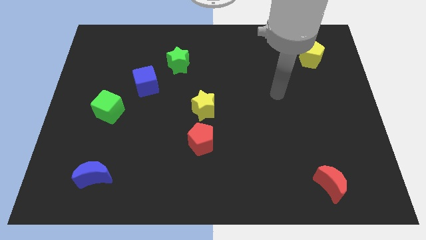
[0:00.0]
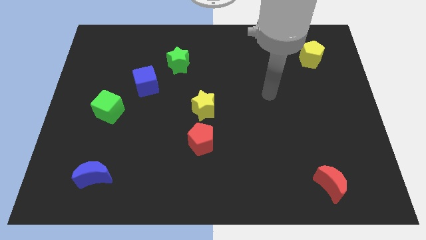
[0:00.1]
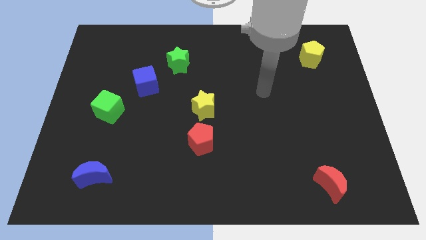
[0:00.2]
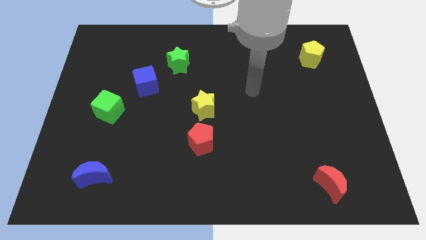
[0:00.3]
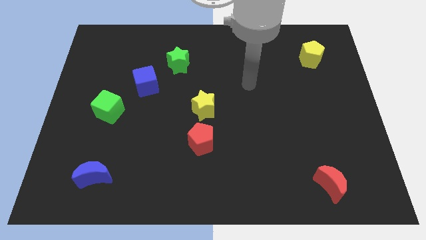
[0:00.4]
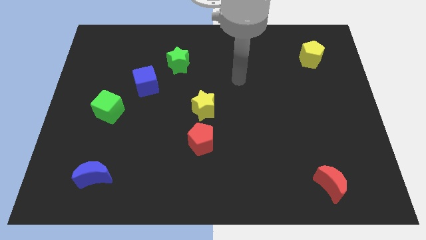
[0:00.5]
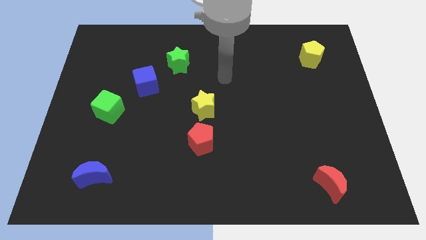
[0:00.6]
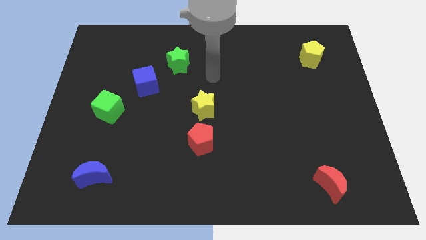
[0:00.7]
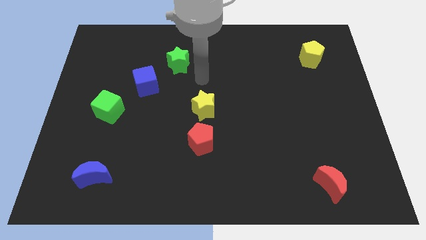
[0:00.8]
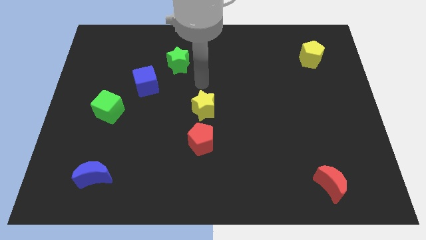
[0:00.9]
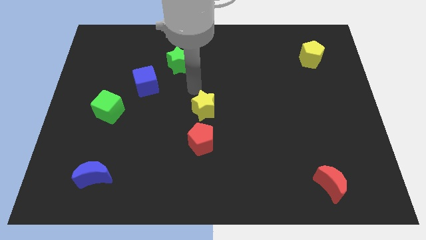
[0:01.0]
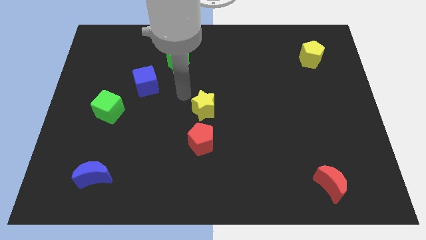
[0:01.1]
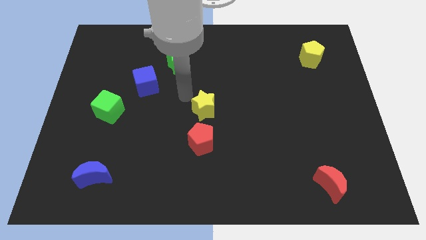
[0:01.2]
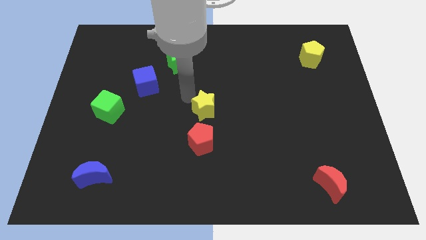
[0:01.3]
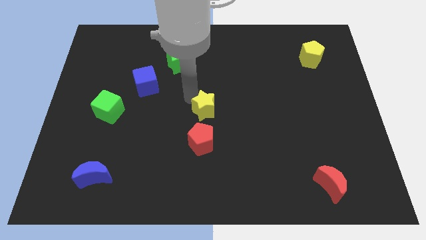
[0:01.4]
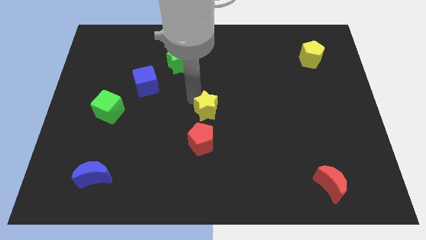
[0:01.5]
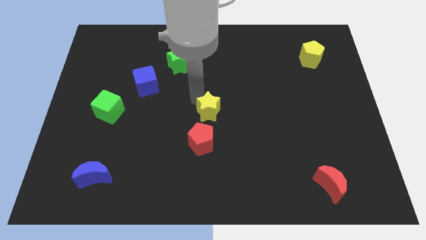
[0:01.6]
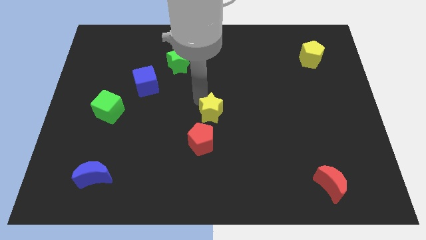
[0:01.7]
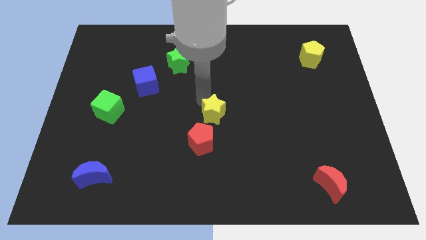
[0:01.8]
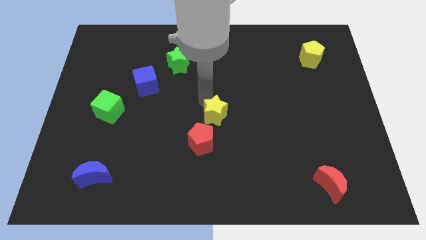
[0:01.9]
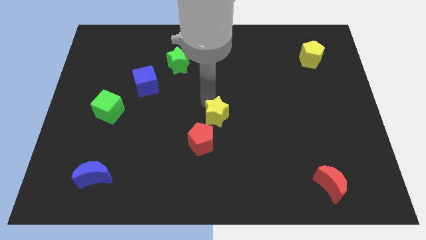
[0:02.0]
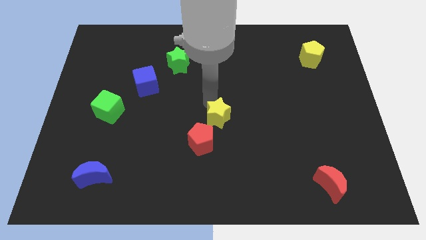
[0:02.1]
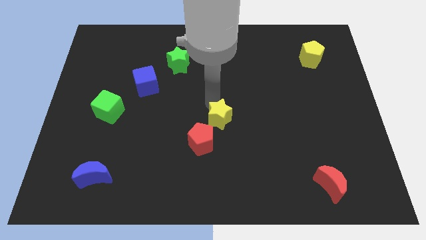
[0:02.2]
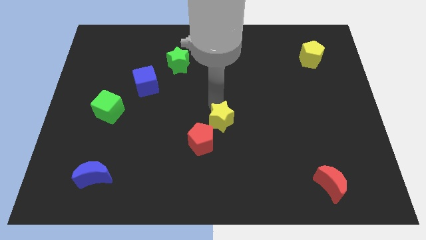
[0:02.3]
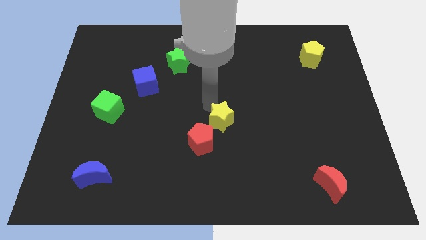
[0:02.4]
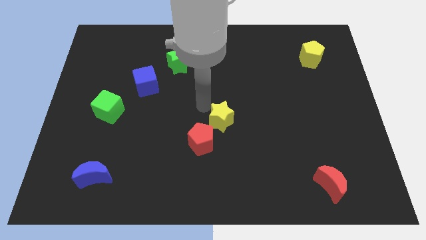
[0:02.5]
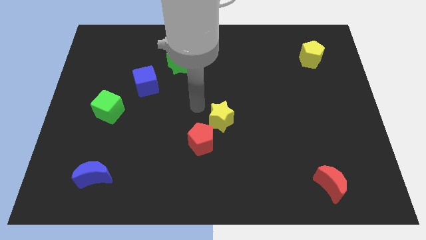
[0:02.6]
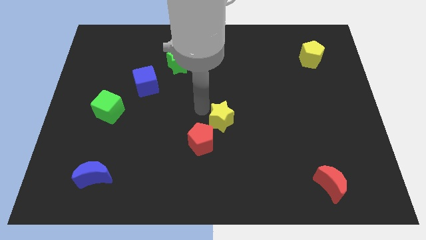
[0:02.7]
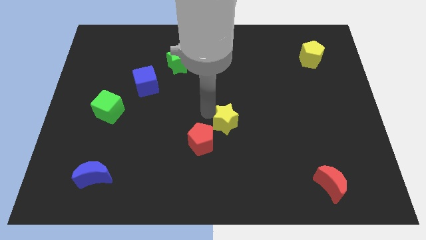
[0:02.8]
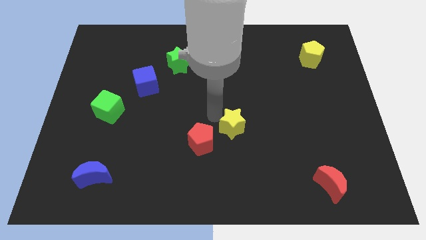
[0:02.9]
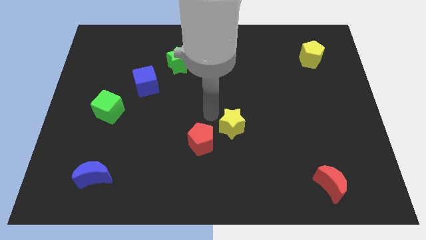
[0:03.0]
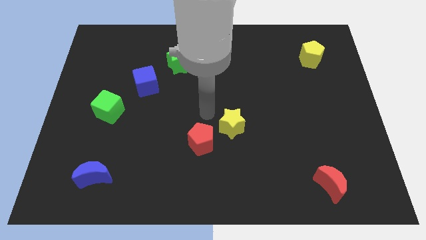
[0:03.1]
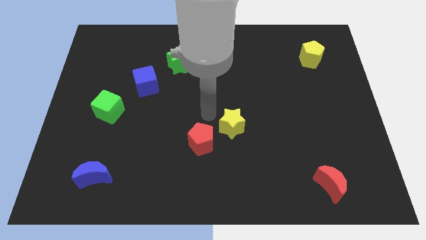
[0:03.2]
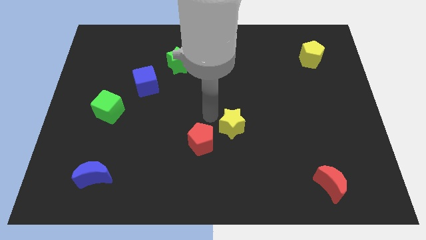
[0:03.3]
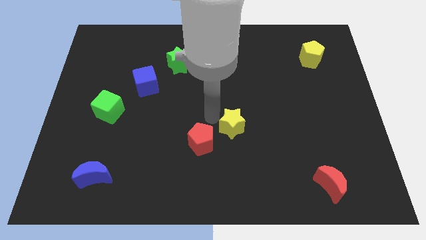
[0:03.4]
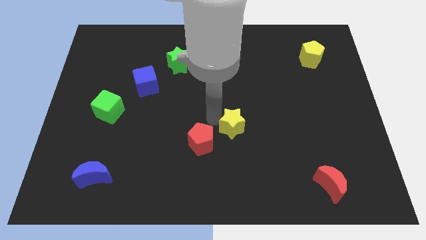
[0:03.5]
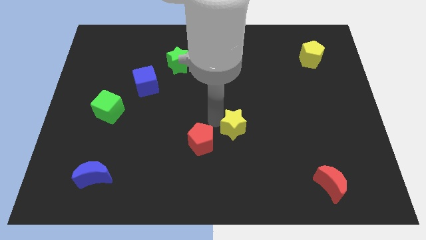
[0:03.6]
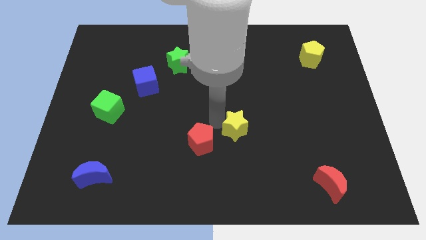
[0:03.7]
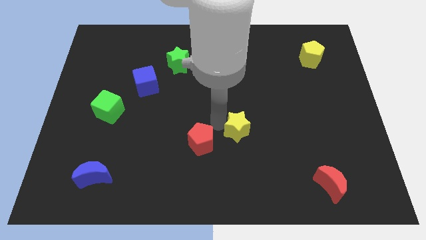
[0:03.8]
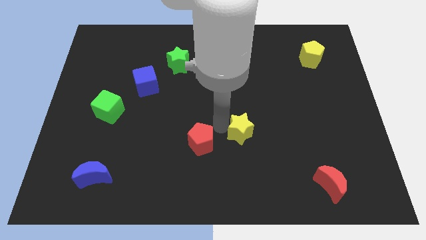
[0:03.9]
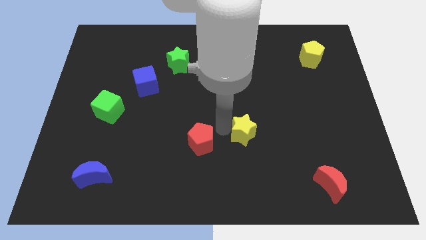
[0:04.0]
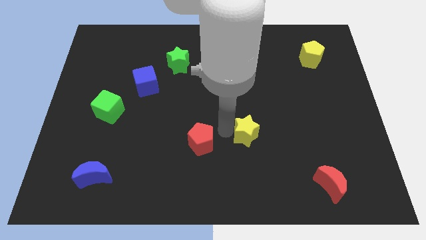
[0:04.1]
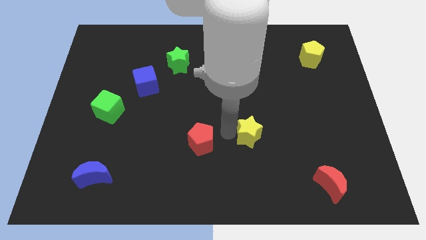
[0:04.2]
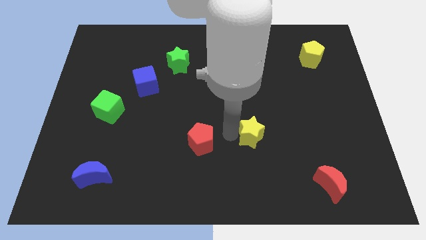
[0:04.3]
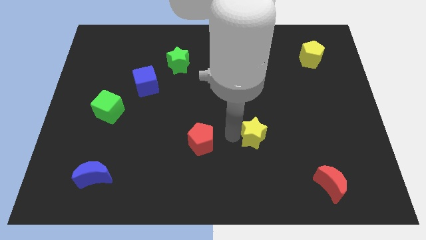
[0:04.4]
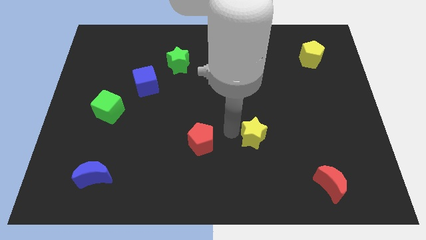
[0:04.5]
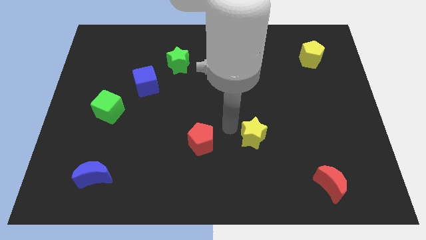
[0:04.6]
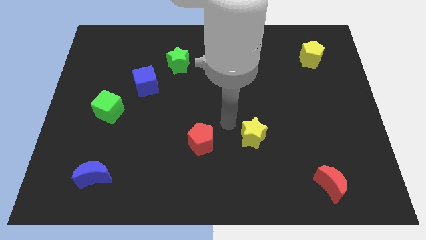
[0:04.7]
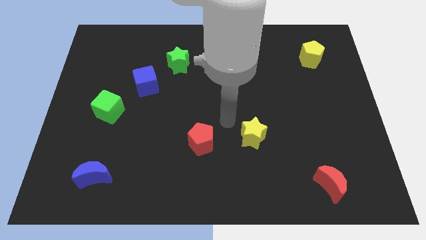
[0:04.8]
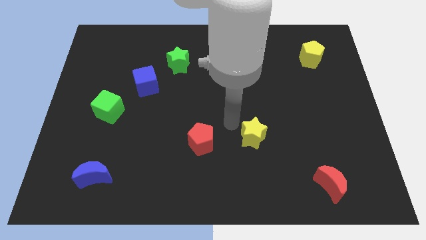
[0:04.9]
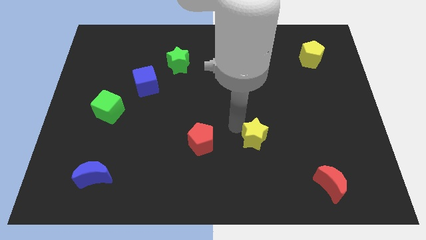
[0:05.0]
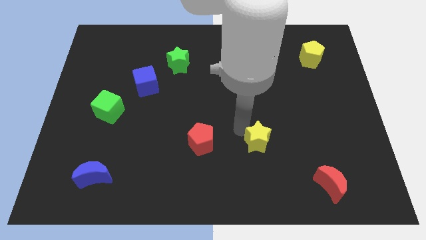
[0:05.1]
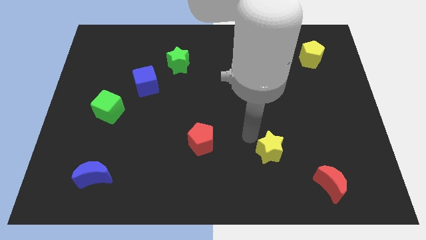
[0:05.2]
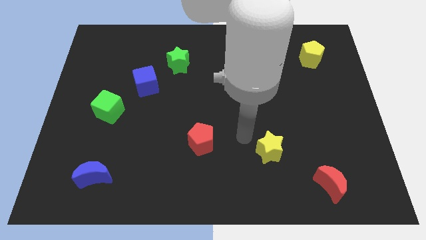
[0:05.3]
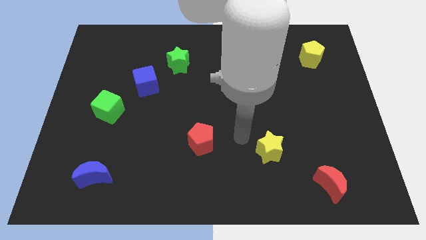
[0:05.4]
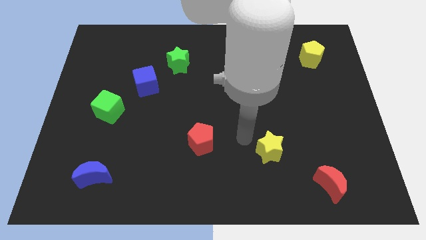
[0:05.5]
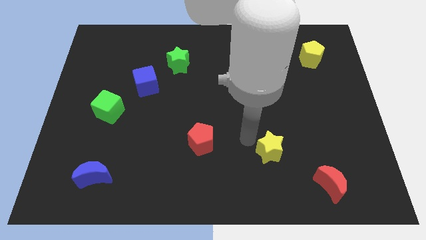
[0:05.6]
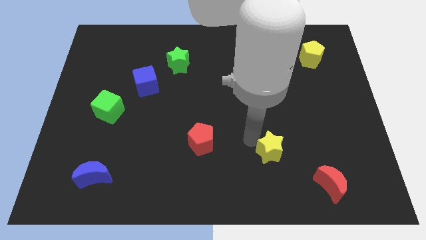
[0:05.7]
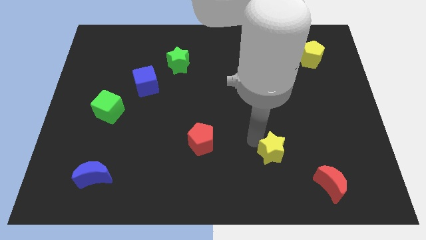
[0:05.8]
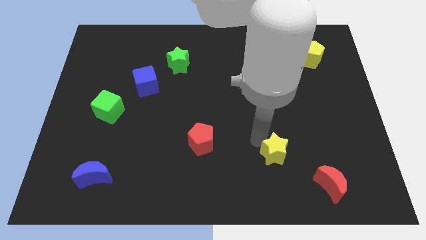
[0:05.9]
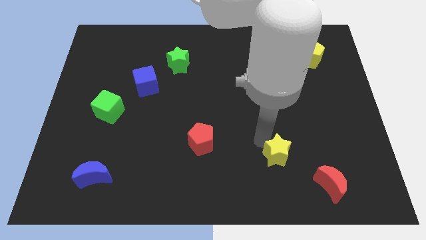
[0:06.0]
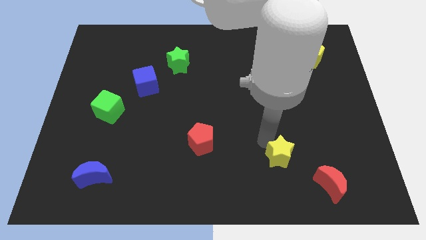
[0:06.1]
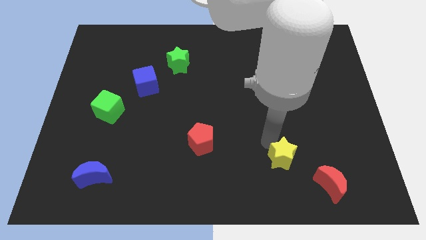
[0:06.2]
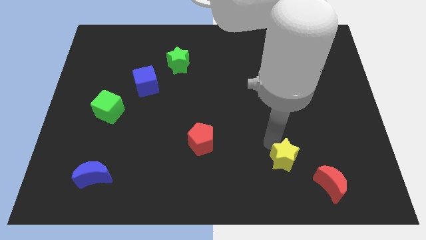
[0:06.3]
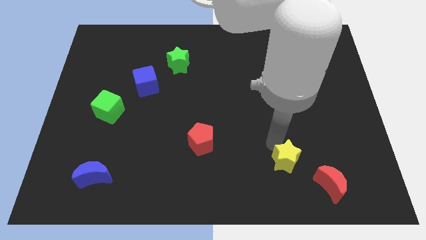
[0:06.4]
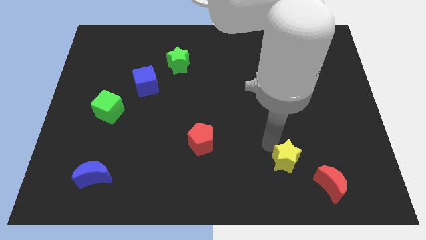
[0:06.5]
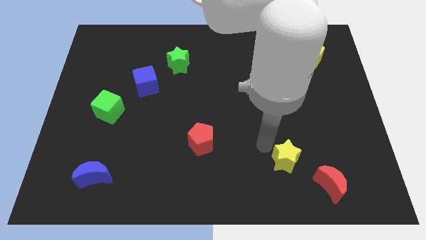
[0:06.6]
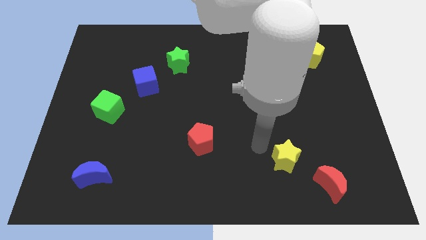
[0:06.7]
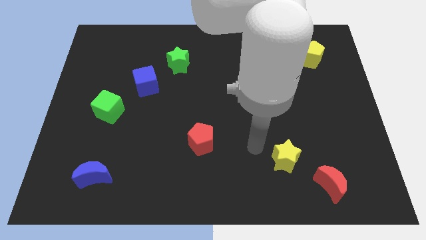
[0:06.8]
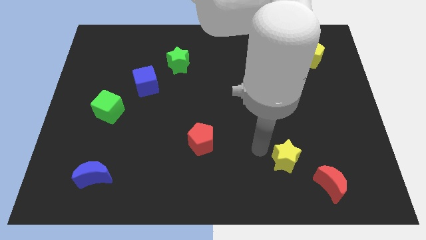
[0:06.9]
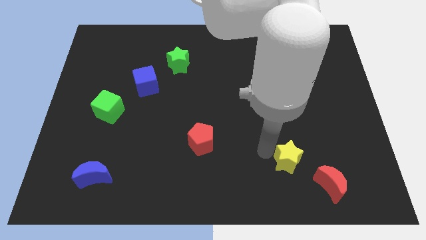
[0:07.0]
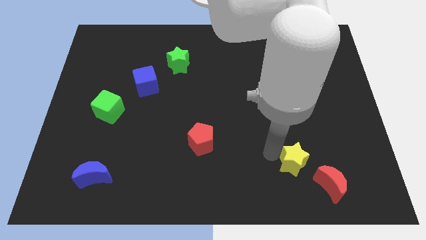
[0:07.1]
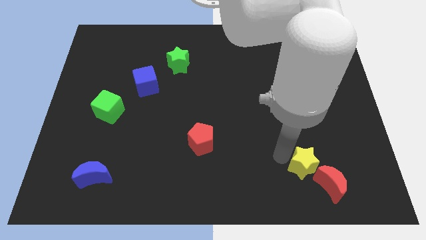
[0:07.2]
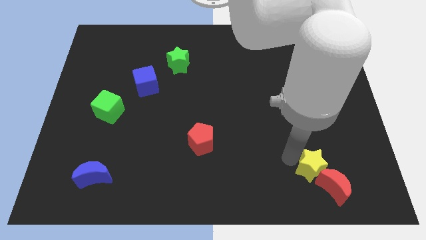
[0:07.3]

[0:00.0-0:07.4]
move the yellow star to the red moon

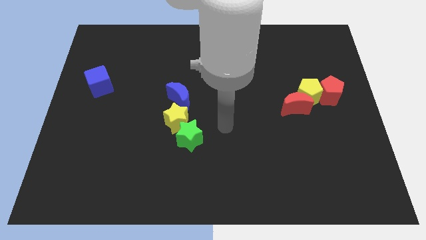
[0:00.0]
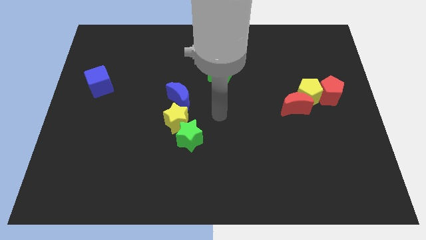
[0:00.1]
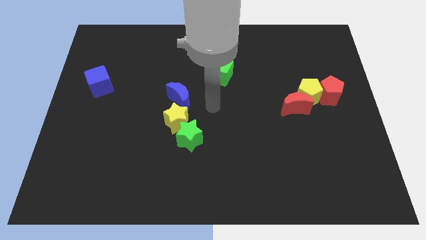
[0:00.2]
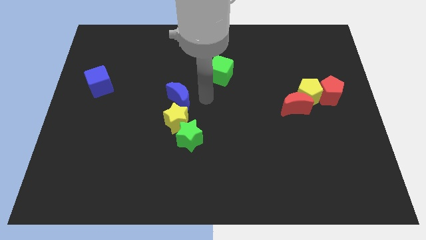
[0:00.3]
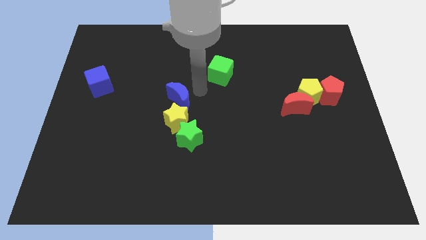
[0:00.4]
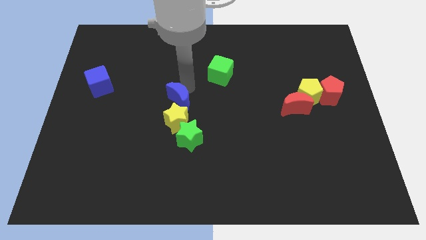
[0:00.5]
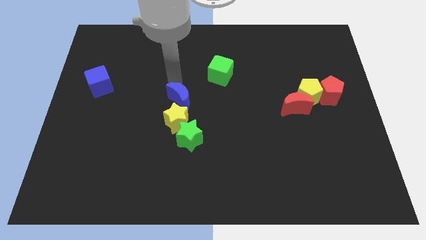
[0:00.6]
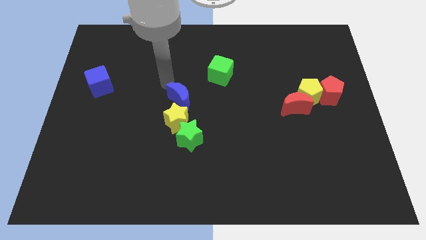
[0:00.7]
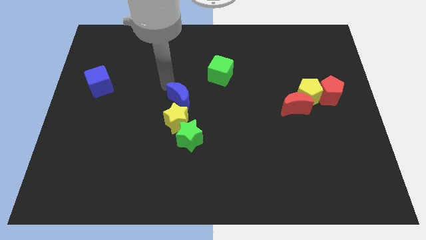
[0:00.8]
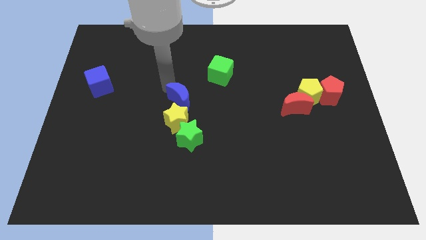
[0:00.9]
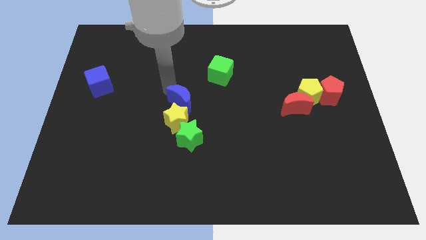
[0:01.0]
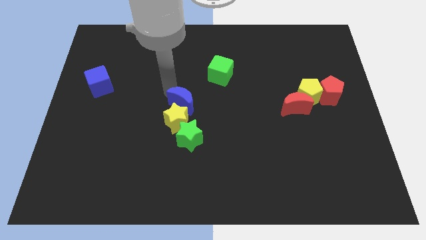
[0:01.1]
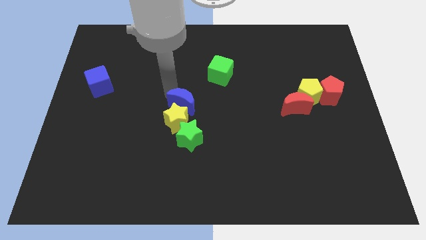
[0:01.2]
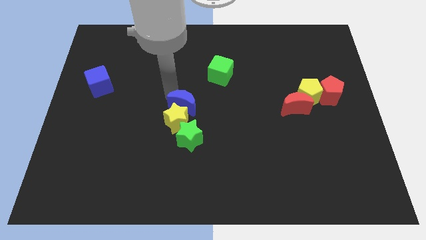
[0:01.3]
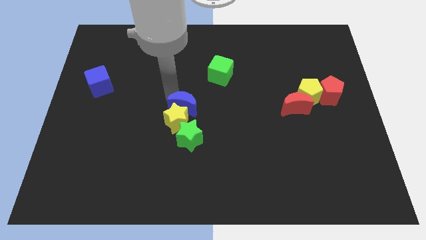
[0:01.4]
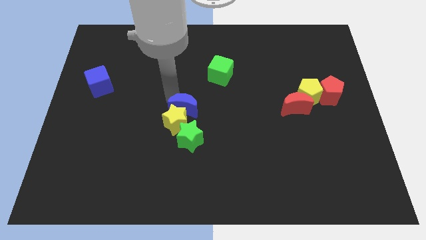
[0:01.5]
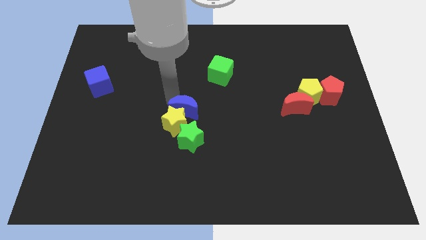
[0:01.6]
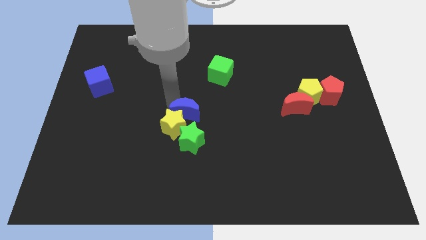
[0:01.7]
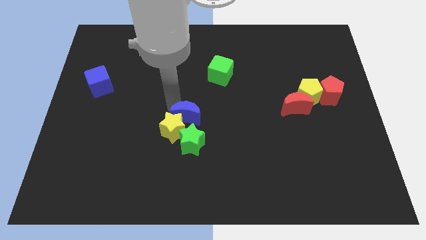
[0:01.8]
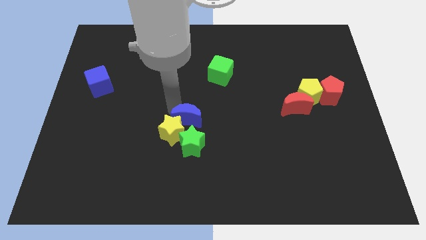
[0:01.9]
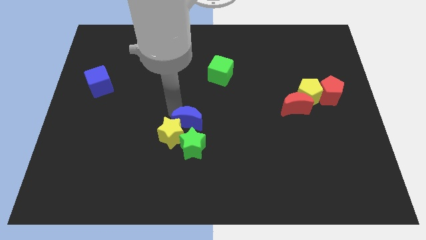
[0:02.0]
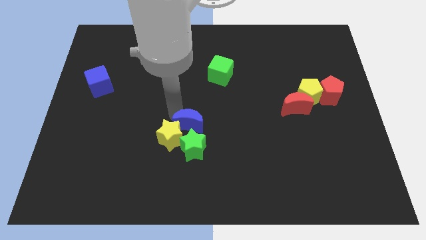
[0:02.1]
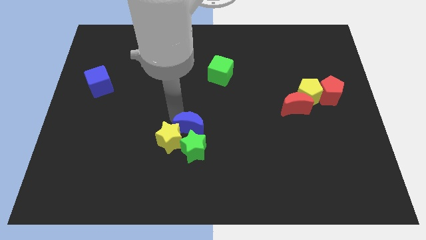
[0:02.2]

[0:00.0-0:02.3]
slide the blue moon next to the green star
